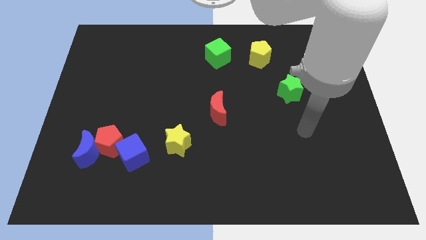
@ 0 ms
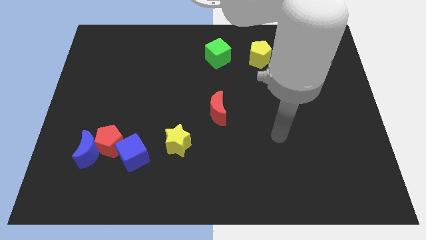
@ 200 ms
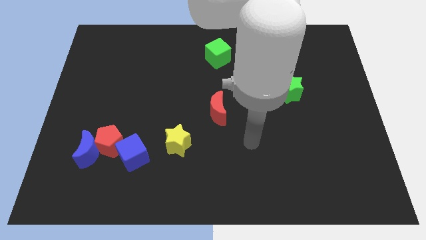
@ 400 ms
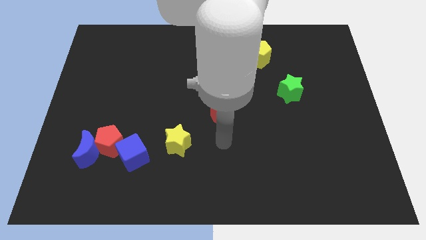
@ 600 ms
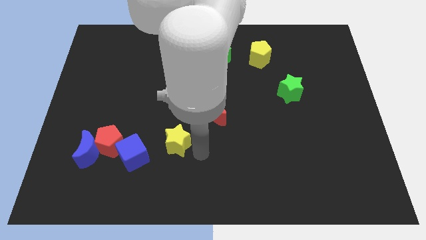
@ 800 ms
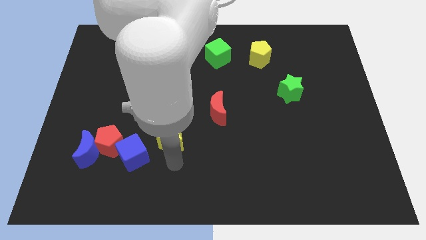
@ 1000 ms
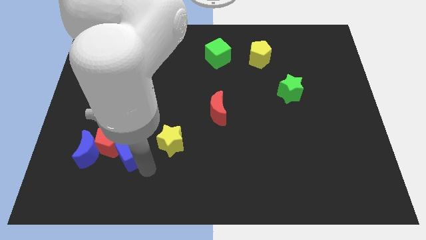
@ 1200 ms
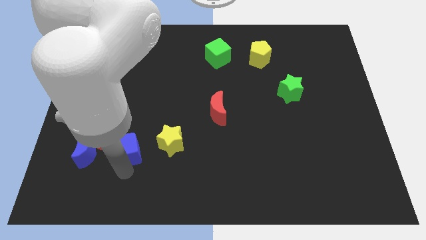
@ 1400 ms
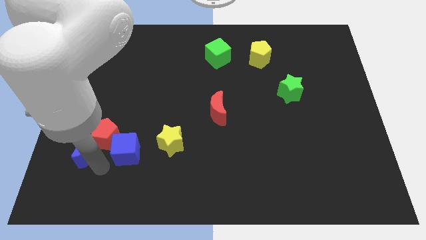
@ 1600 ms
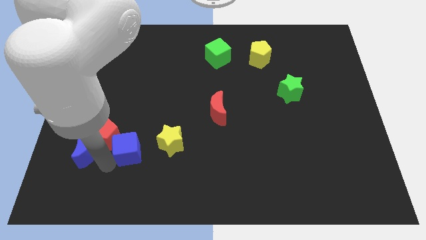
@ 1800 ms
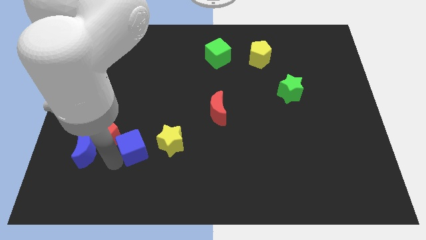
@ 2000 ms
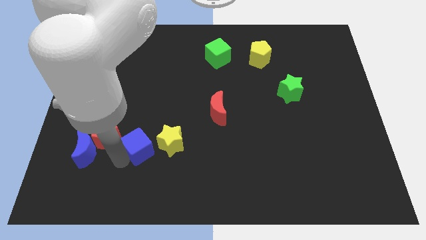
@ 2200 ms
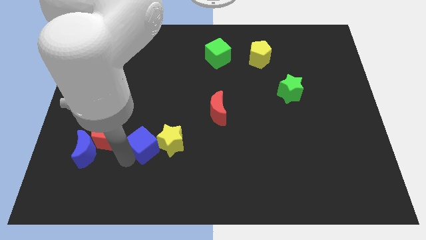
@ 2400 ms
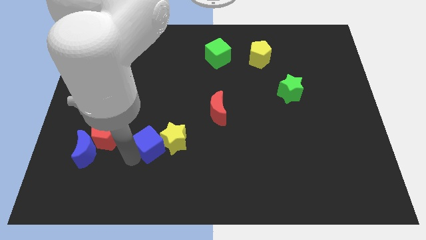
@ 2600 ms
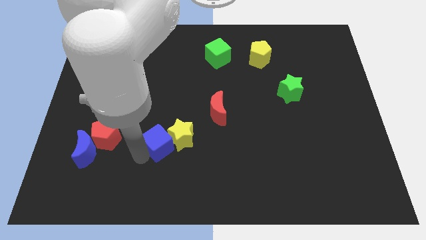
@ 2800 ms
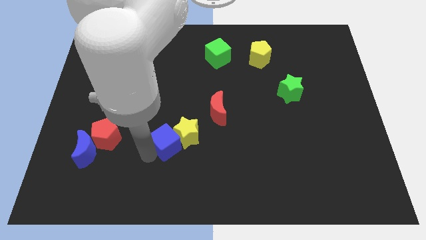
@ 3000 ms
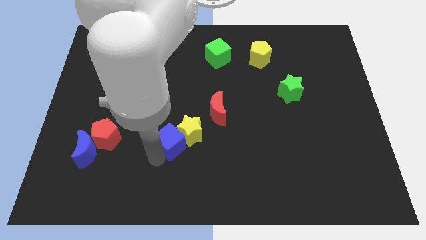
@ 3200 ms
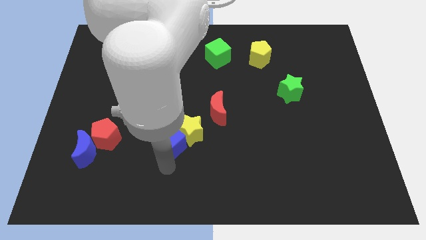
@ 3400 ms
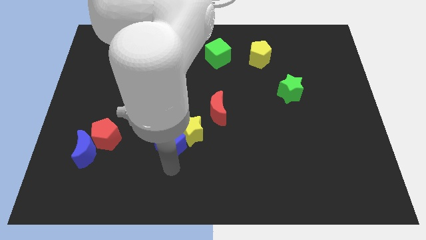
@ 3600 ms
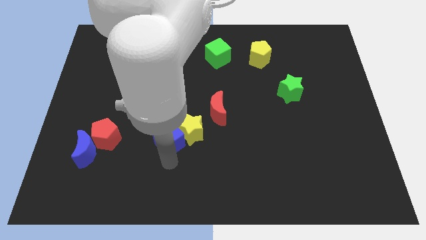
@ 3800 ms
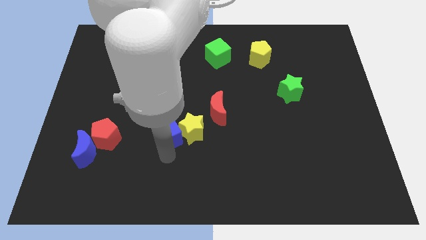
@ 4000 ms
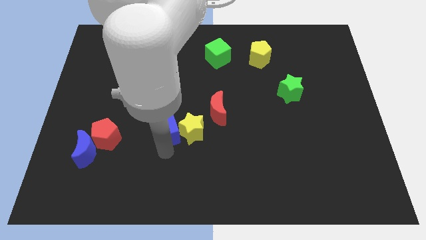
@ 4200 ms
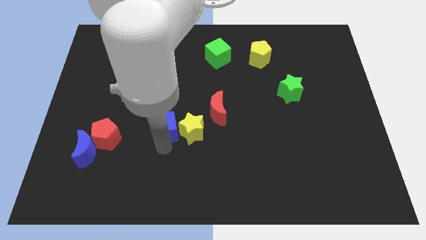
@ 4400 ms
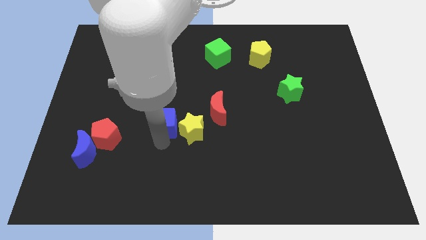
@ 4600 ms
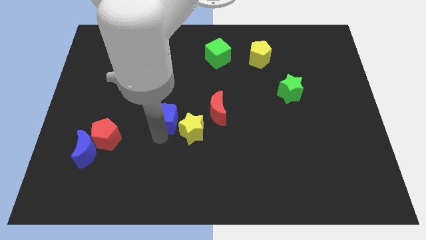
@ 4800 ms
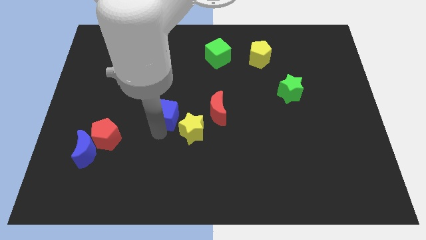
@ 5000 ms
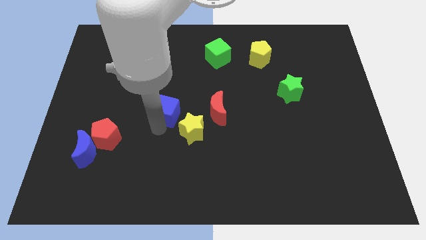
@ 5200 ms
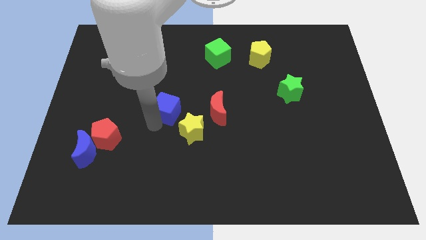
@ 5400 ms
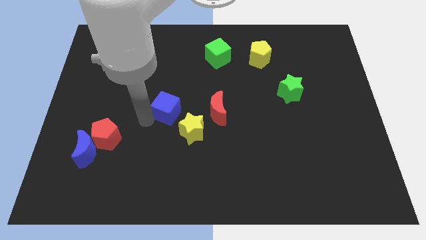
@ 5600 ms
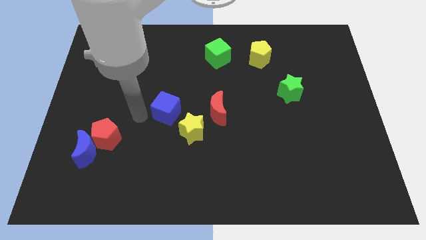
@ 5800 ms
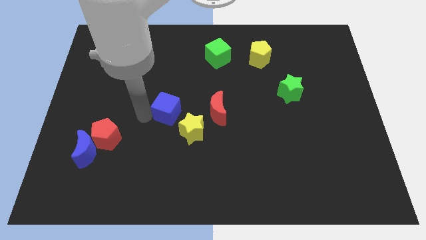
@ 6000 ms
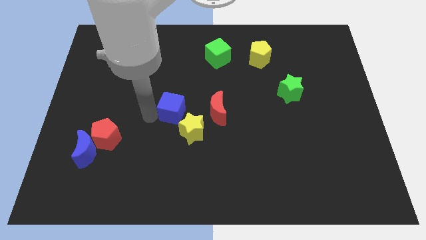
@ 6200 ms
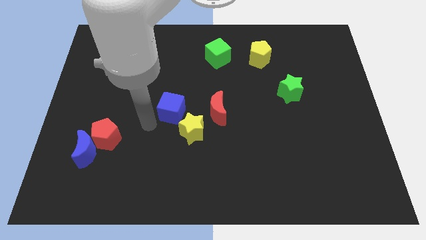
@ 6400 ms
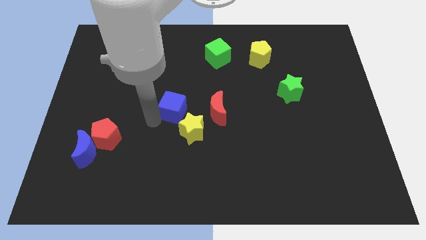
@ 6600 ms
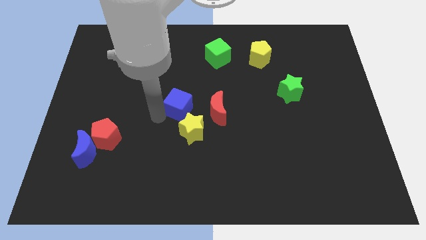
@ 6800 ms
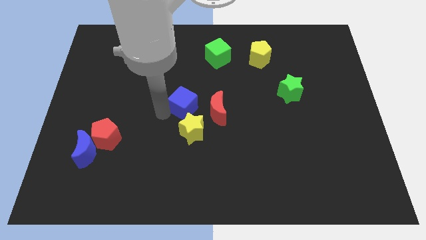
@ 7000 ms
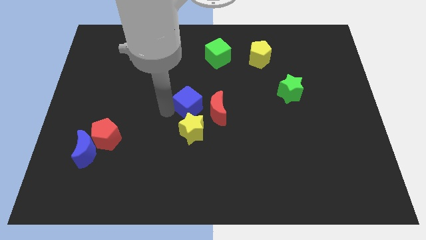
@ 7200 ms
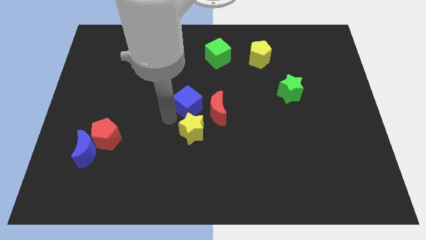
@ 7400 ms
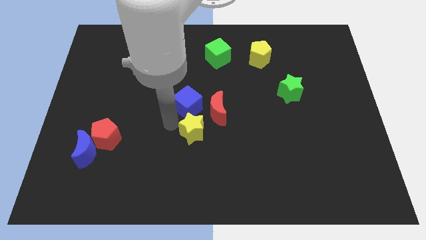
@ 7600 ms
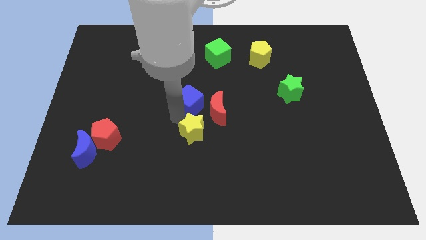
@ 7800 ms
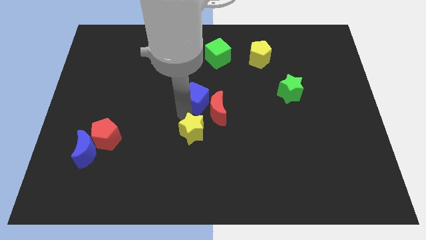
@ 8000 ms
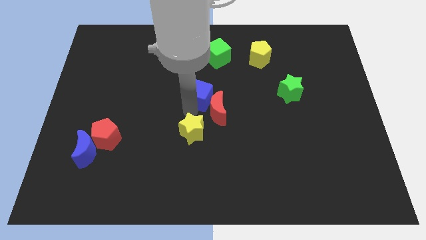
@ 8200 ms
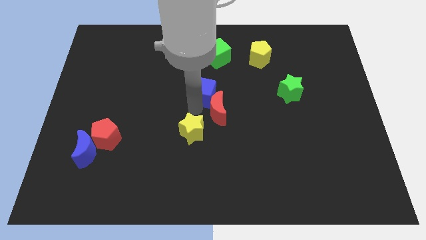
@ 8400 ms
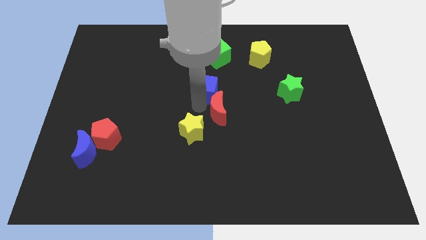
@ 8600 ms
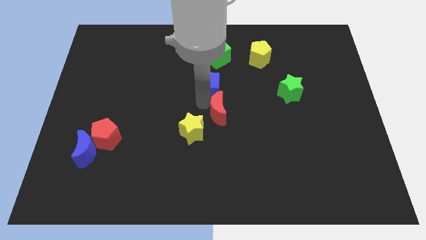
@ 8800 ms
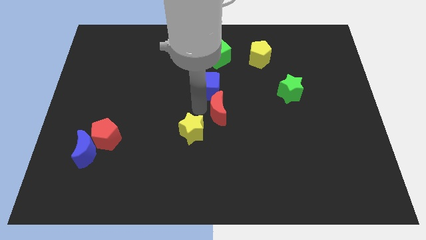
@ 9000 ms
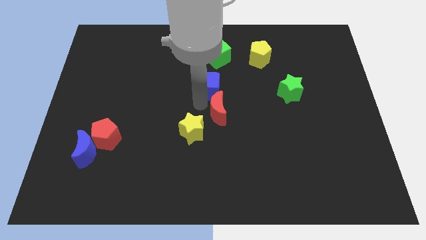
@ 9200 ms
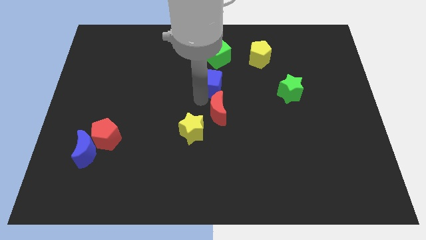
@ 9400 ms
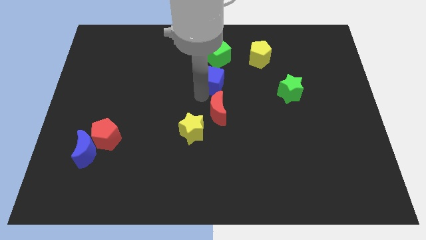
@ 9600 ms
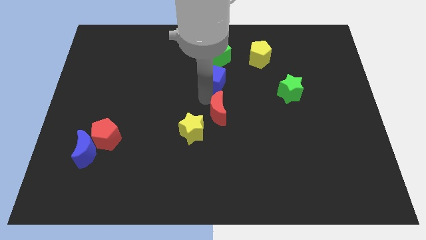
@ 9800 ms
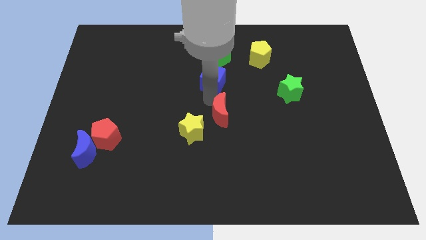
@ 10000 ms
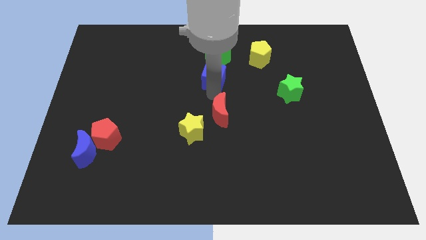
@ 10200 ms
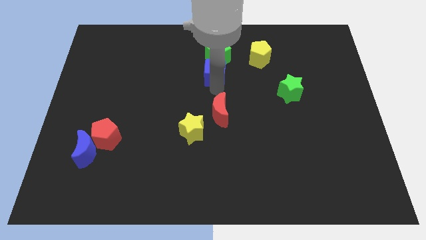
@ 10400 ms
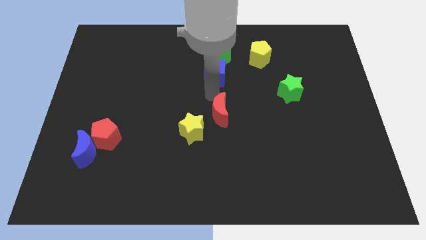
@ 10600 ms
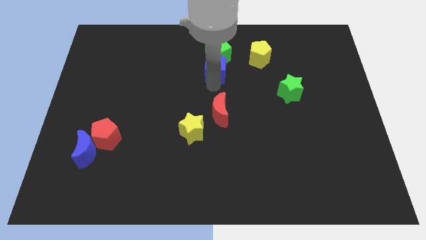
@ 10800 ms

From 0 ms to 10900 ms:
push the blue cube close to the green cube

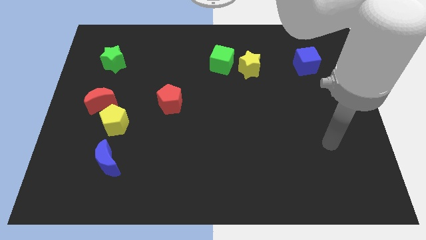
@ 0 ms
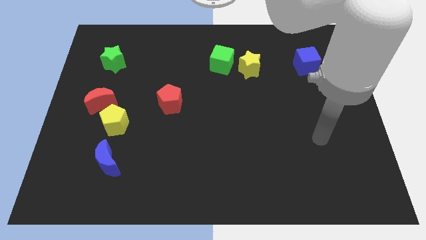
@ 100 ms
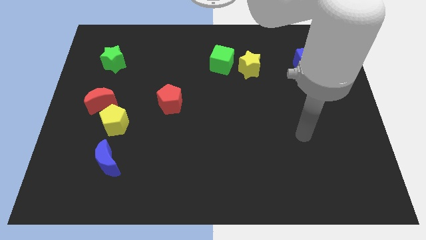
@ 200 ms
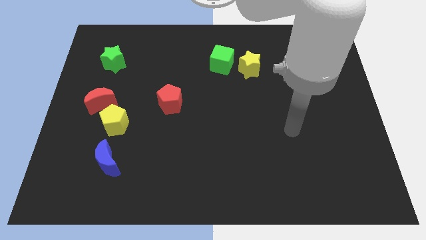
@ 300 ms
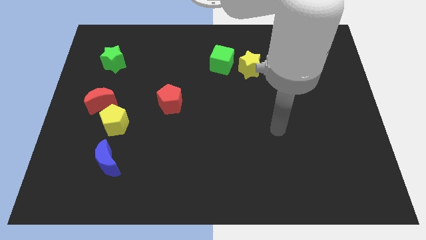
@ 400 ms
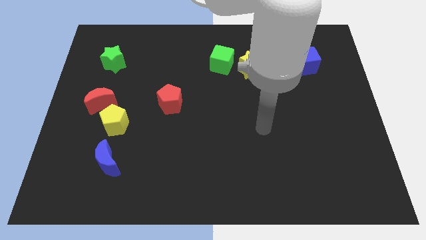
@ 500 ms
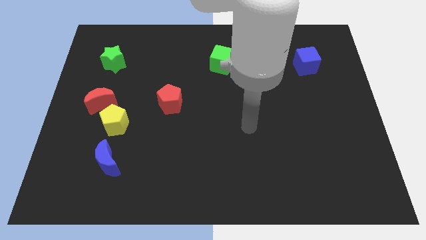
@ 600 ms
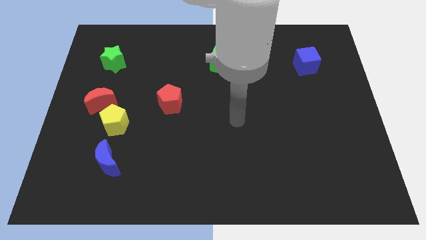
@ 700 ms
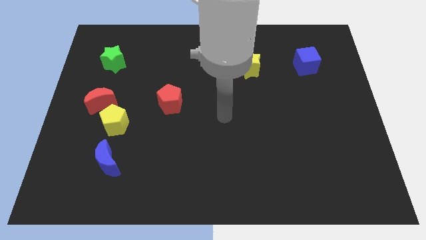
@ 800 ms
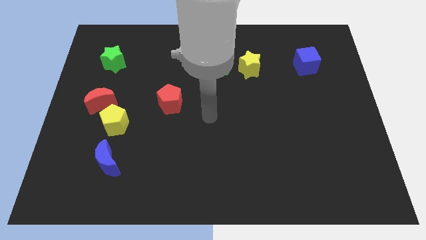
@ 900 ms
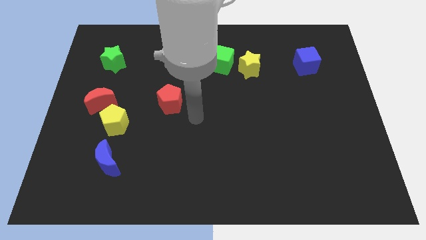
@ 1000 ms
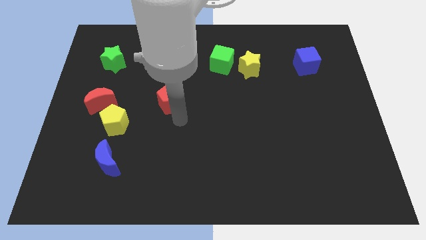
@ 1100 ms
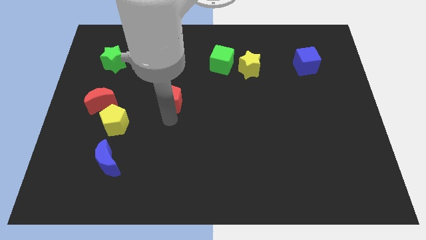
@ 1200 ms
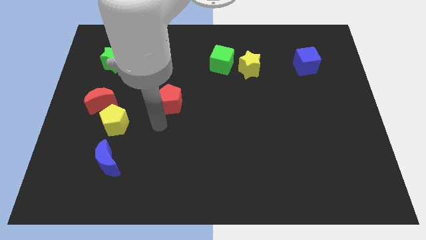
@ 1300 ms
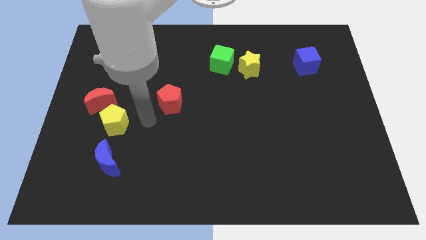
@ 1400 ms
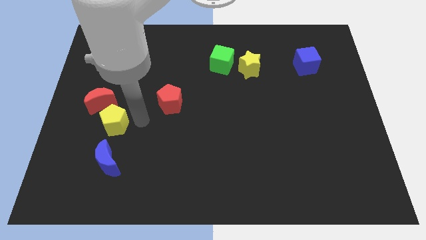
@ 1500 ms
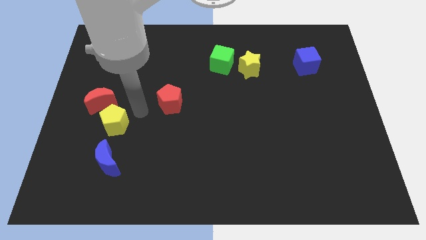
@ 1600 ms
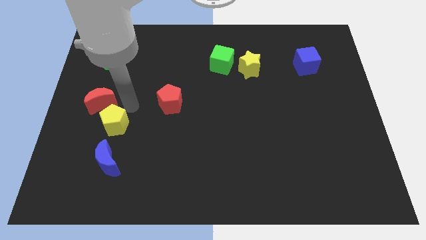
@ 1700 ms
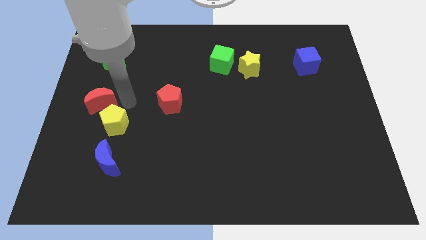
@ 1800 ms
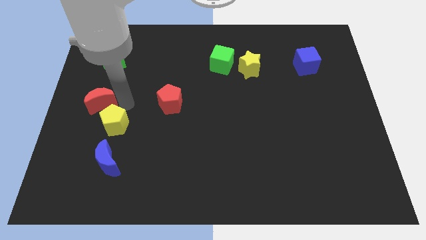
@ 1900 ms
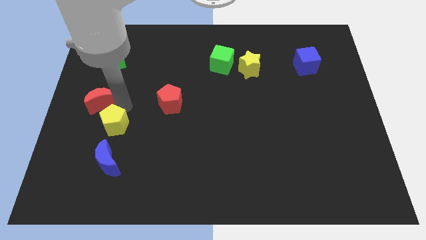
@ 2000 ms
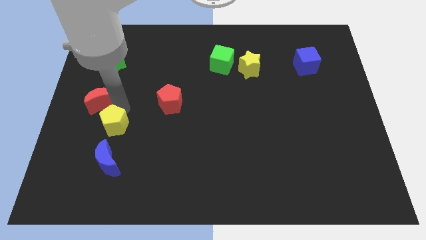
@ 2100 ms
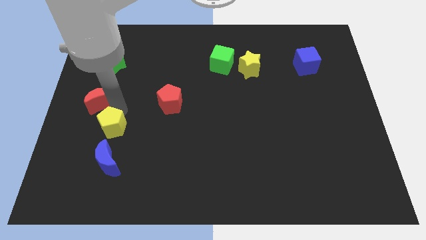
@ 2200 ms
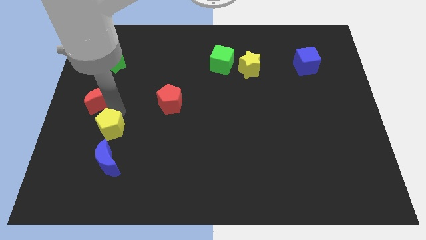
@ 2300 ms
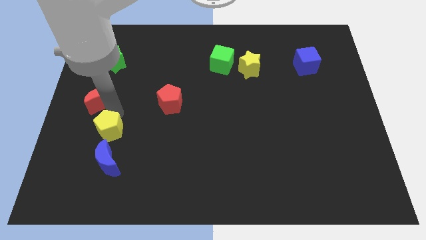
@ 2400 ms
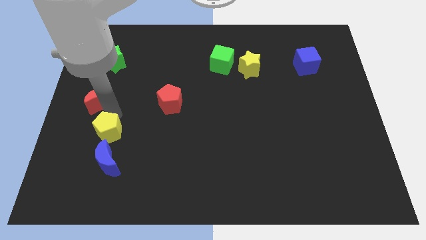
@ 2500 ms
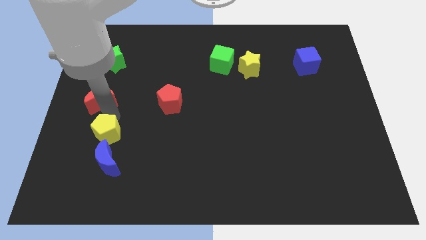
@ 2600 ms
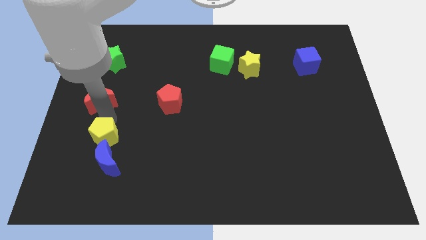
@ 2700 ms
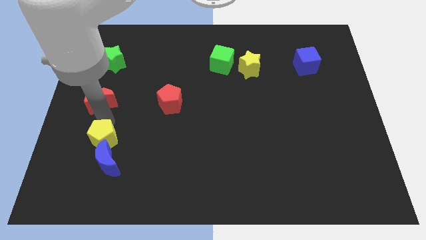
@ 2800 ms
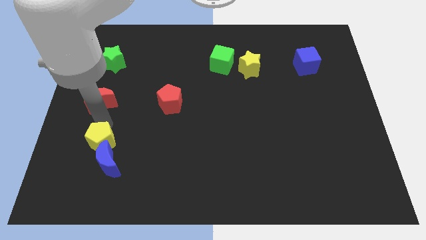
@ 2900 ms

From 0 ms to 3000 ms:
move the yellow pentagon next to the blue moon
